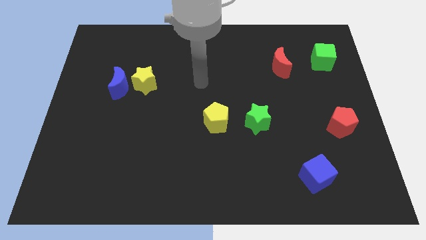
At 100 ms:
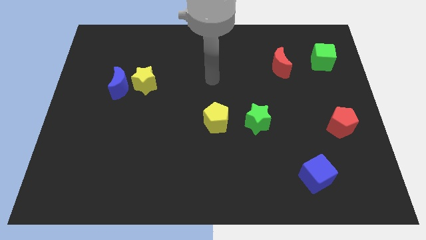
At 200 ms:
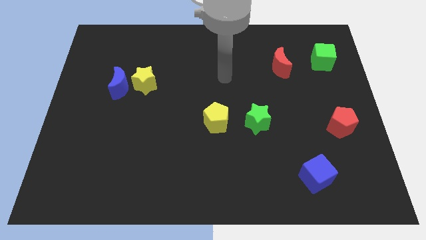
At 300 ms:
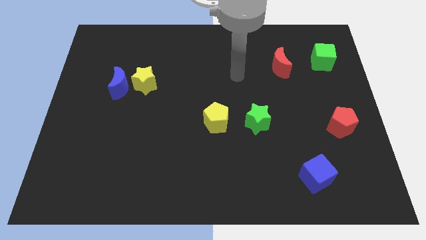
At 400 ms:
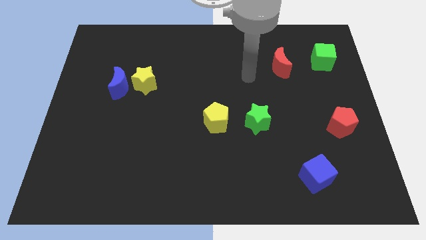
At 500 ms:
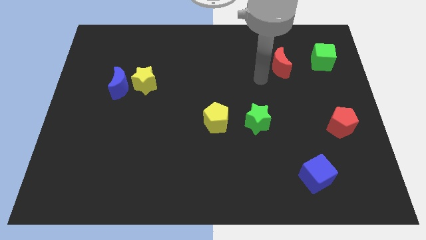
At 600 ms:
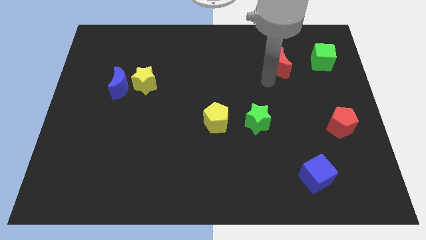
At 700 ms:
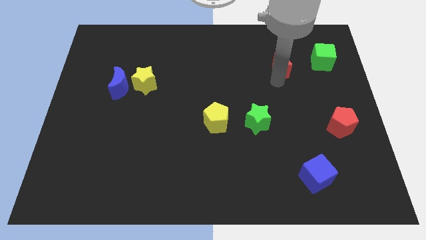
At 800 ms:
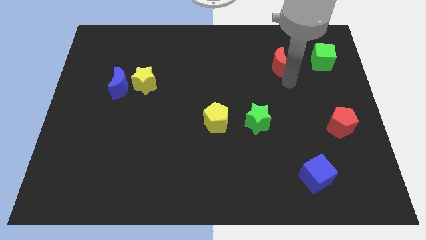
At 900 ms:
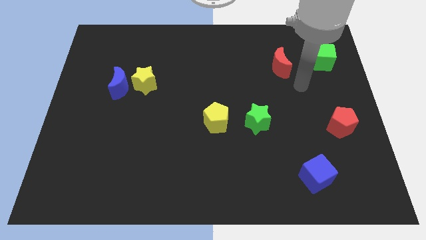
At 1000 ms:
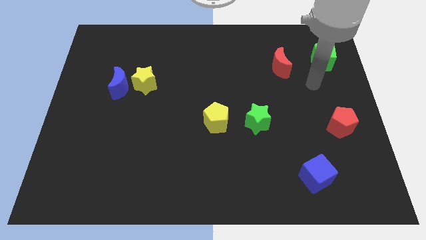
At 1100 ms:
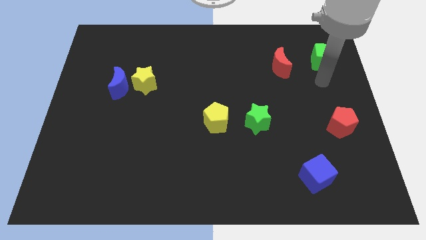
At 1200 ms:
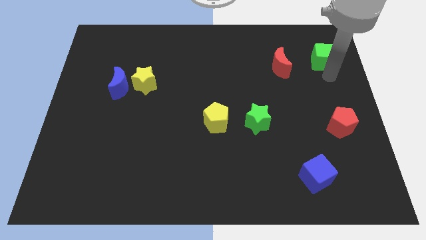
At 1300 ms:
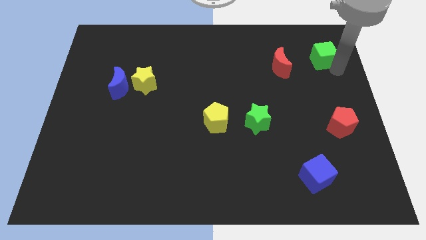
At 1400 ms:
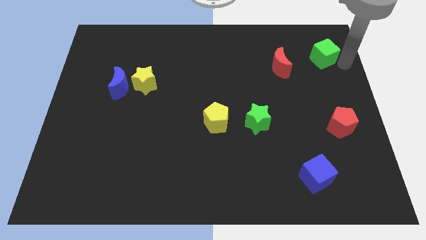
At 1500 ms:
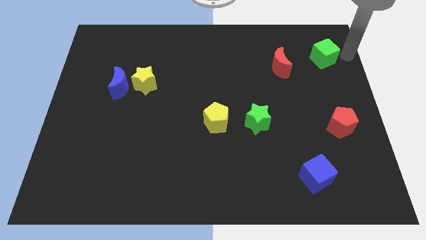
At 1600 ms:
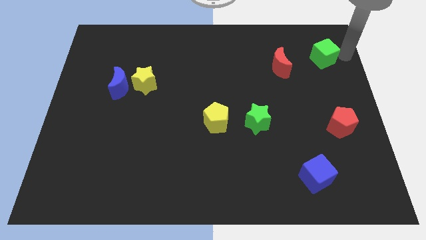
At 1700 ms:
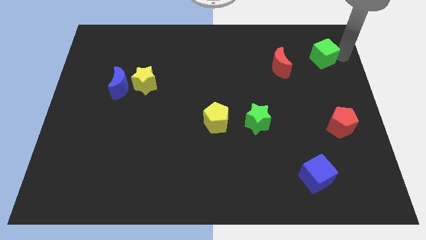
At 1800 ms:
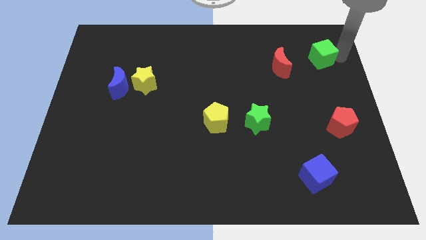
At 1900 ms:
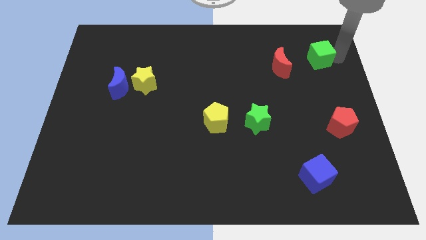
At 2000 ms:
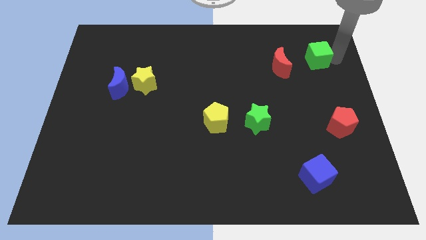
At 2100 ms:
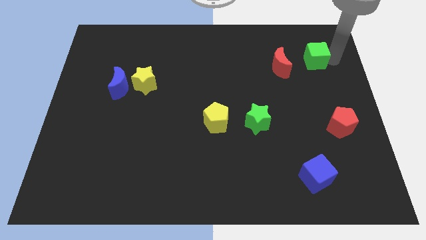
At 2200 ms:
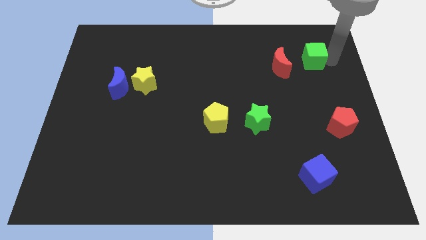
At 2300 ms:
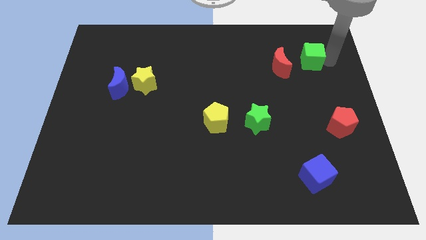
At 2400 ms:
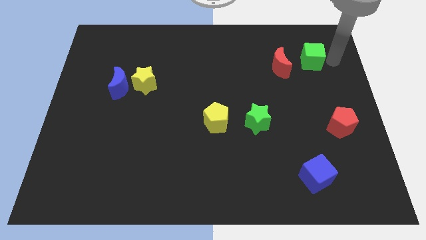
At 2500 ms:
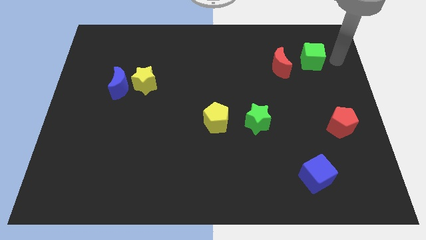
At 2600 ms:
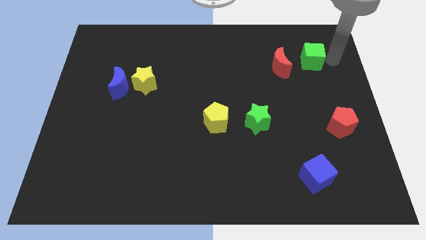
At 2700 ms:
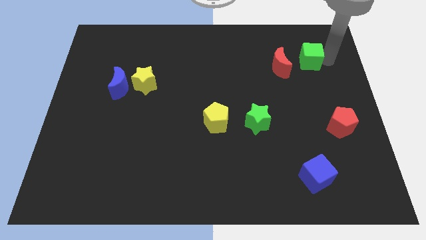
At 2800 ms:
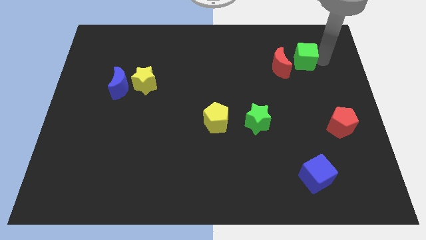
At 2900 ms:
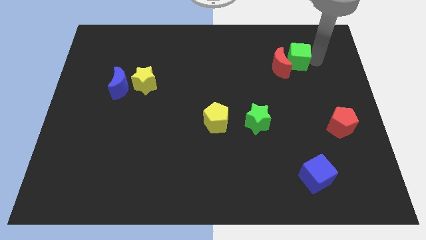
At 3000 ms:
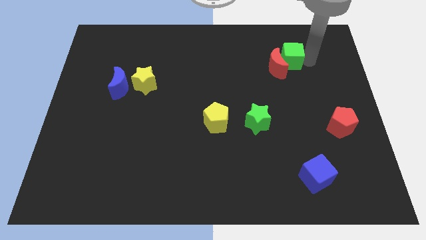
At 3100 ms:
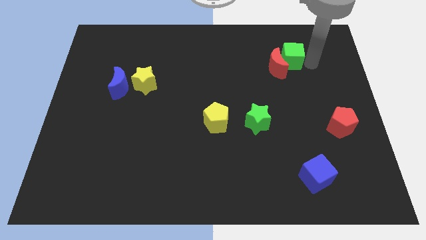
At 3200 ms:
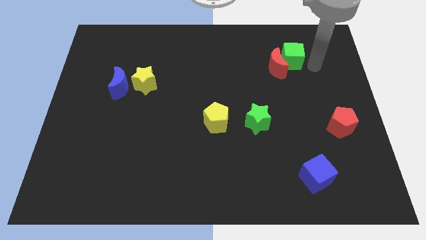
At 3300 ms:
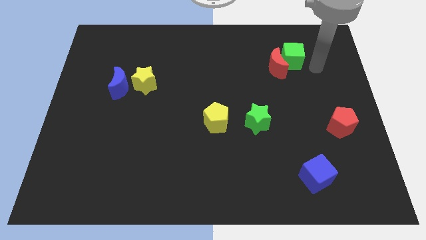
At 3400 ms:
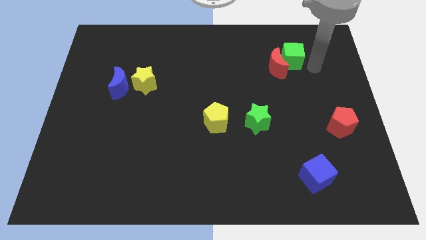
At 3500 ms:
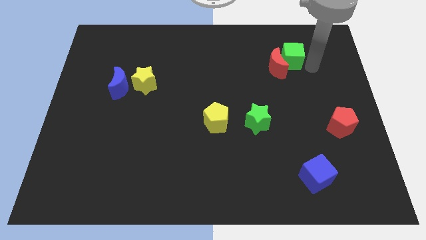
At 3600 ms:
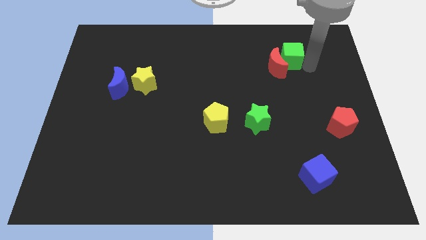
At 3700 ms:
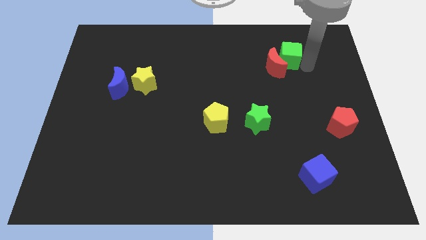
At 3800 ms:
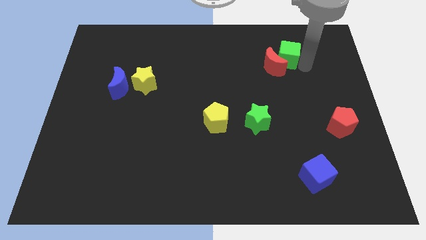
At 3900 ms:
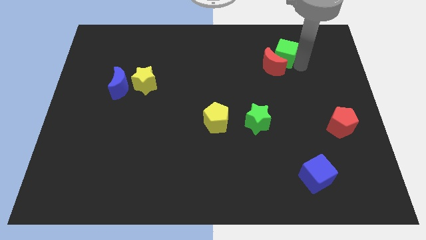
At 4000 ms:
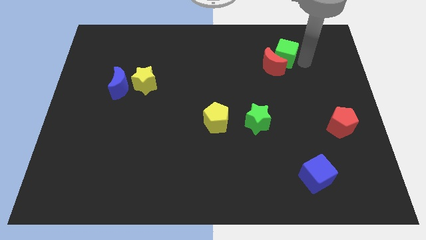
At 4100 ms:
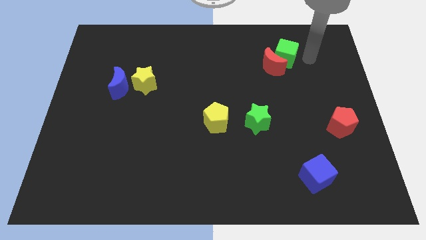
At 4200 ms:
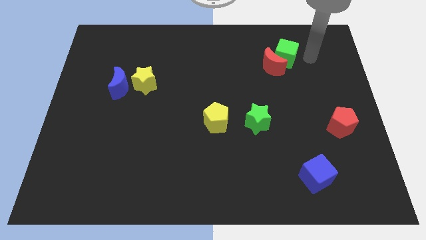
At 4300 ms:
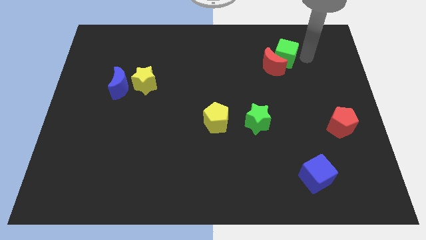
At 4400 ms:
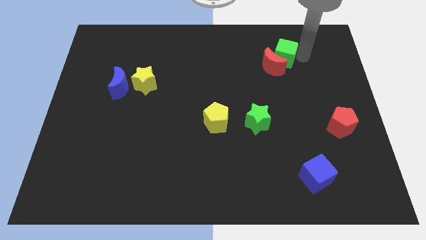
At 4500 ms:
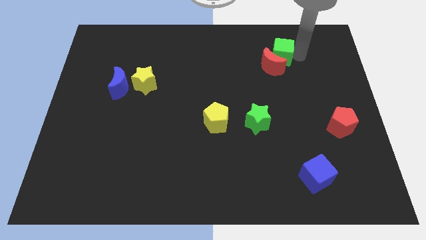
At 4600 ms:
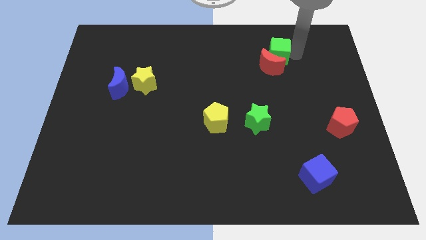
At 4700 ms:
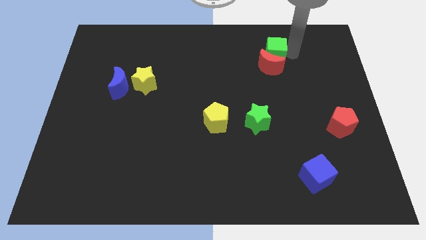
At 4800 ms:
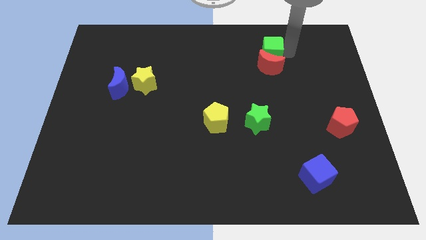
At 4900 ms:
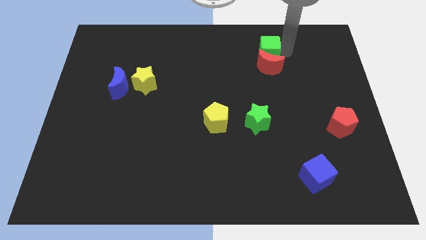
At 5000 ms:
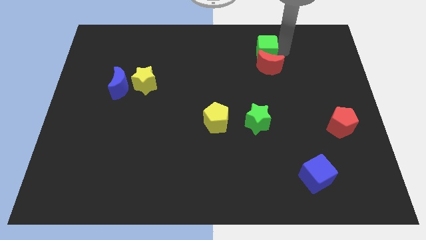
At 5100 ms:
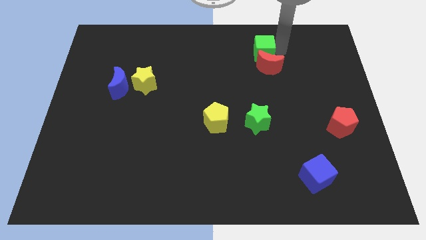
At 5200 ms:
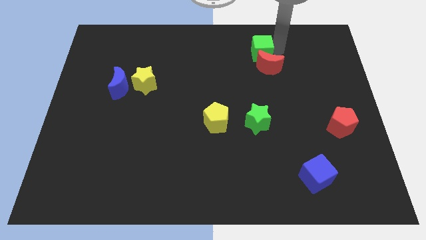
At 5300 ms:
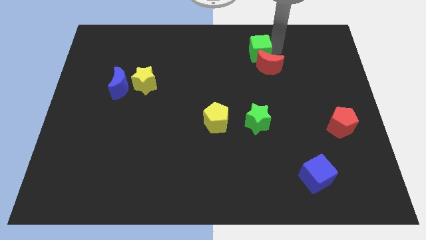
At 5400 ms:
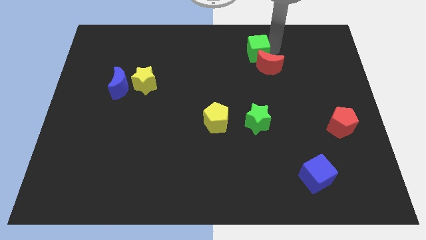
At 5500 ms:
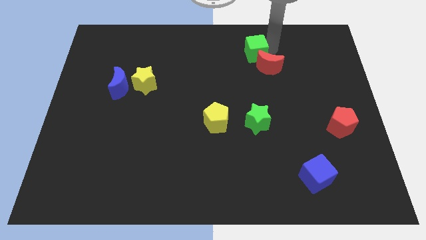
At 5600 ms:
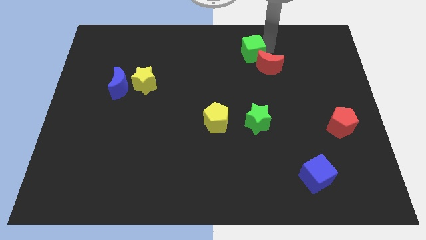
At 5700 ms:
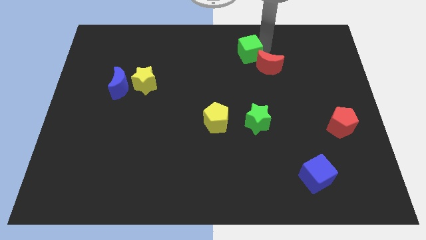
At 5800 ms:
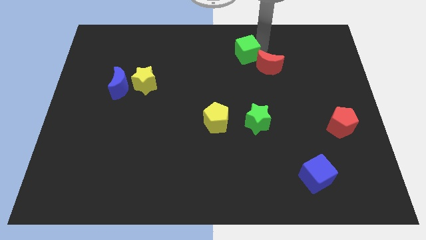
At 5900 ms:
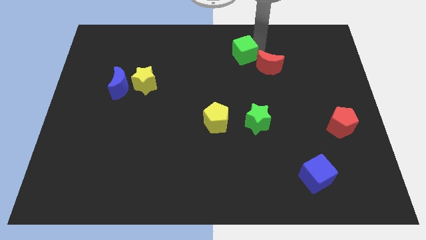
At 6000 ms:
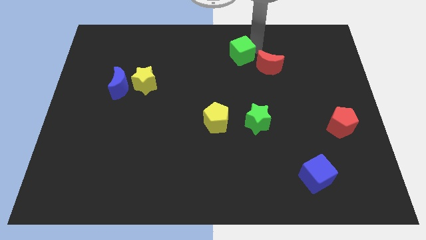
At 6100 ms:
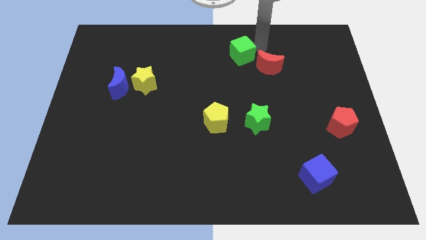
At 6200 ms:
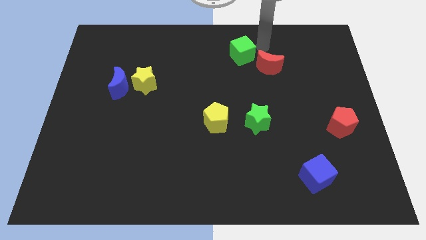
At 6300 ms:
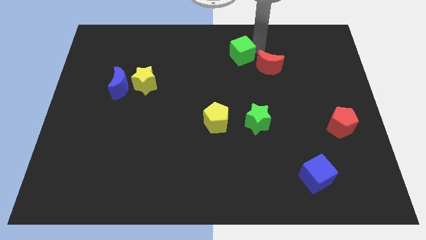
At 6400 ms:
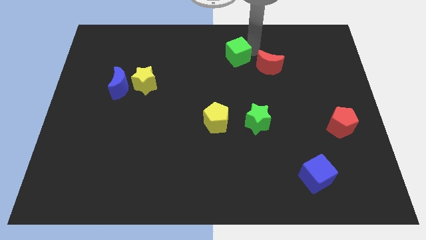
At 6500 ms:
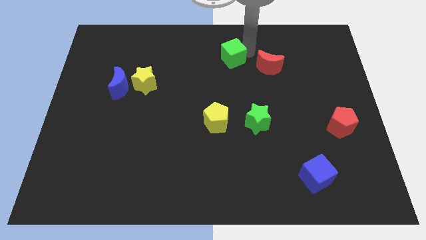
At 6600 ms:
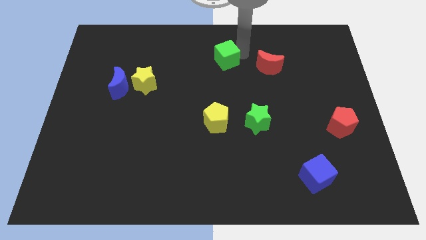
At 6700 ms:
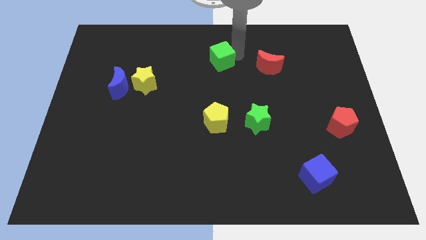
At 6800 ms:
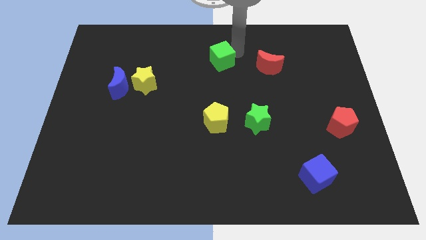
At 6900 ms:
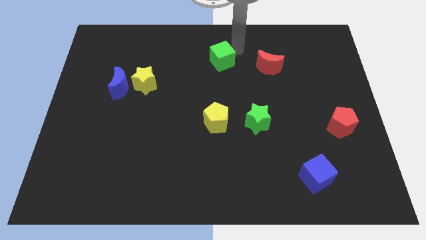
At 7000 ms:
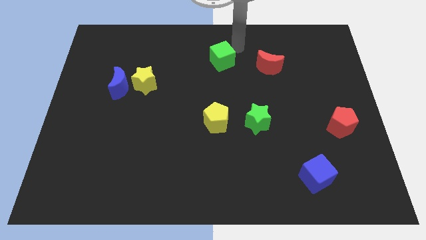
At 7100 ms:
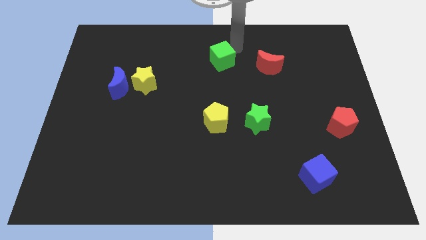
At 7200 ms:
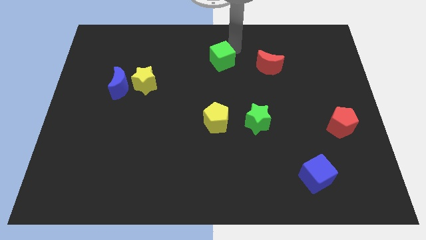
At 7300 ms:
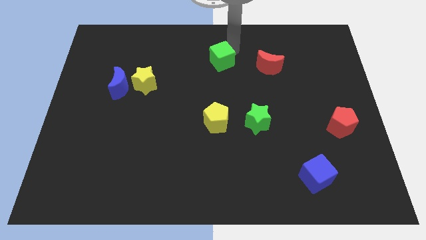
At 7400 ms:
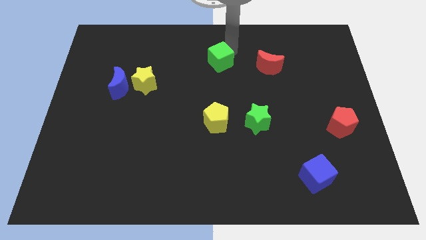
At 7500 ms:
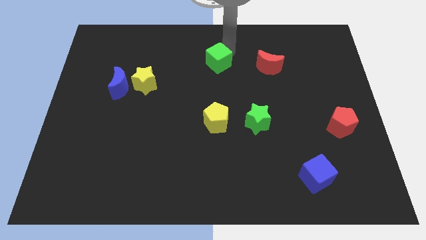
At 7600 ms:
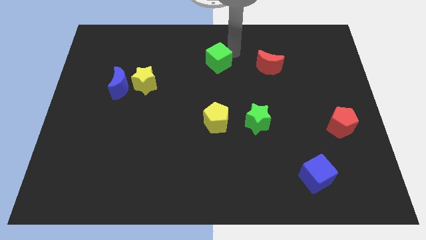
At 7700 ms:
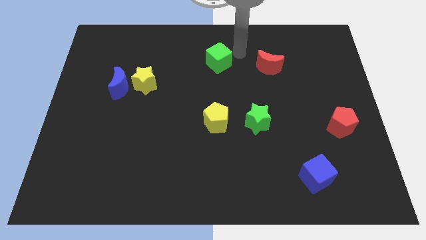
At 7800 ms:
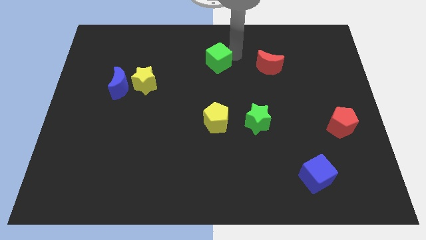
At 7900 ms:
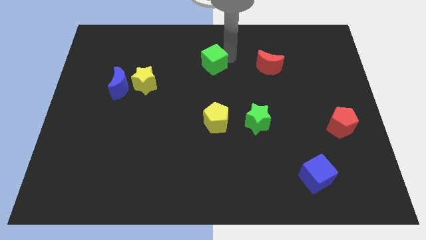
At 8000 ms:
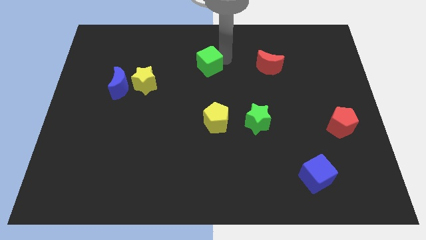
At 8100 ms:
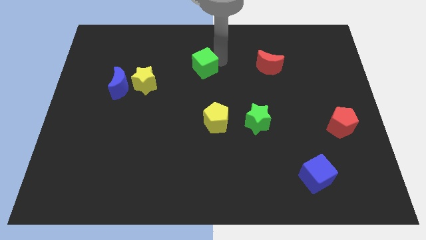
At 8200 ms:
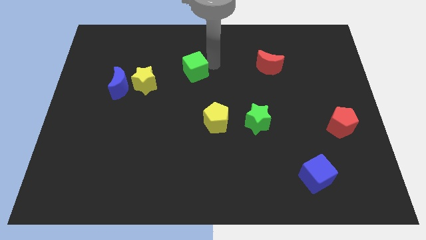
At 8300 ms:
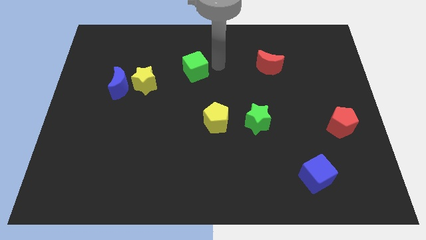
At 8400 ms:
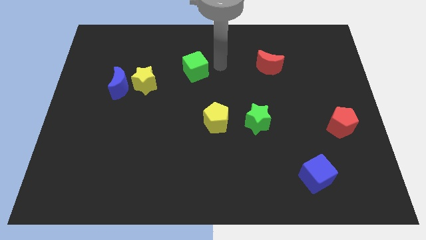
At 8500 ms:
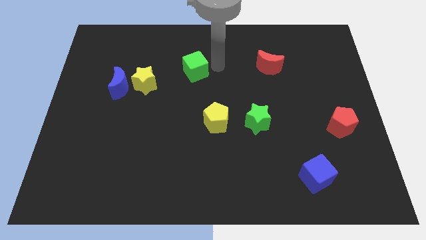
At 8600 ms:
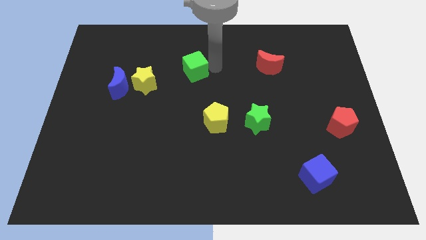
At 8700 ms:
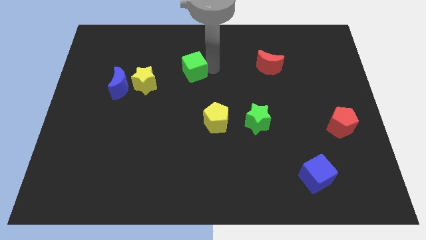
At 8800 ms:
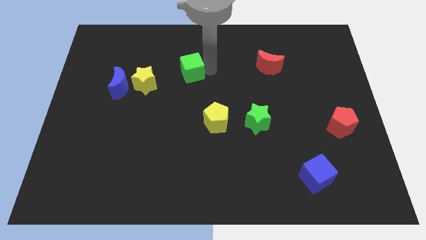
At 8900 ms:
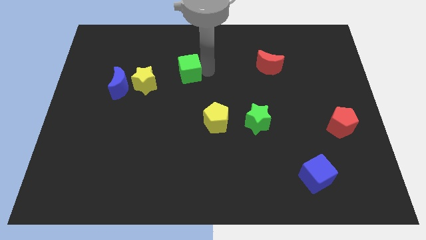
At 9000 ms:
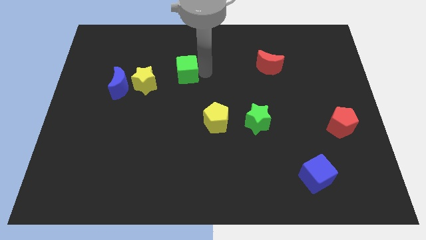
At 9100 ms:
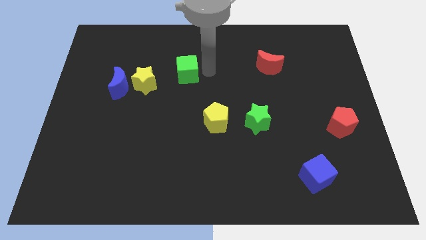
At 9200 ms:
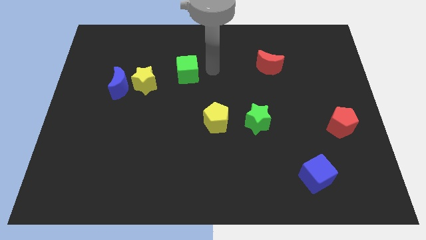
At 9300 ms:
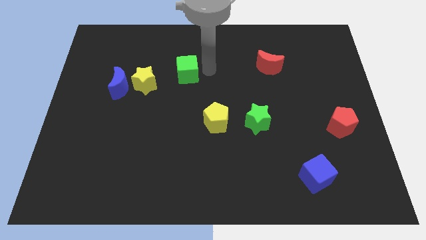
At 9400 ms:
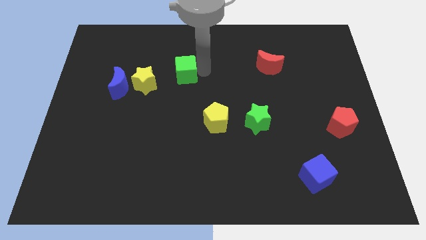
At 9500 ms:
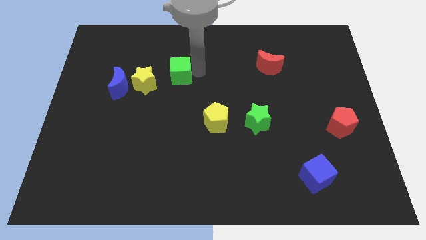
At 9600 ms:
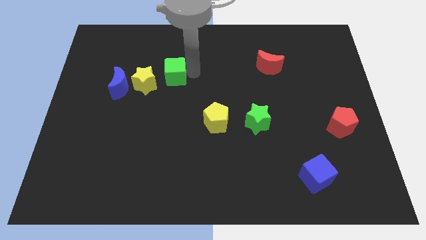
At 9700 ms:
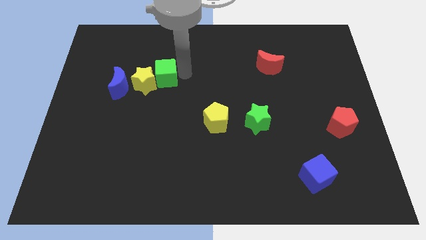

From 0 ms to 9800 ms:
slide the green cube next to the yellow star
